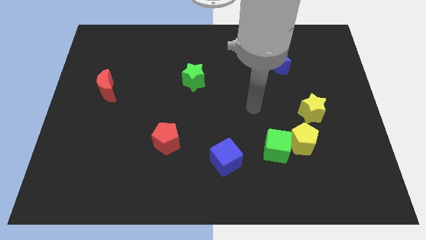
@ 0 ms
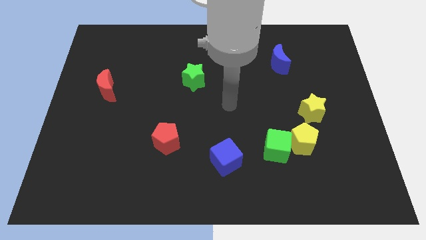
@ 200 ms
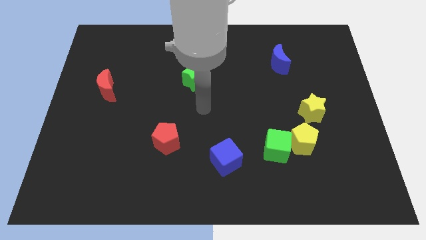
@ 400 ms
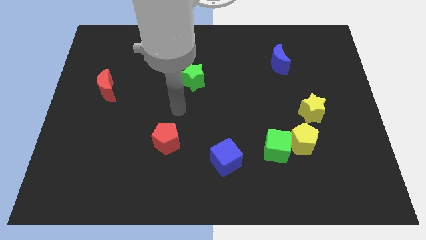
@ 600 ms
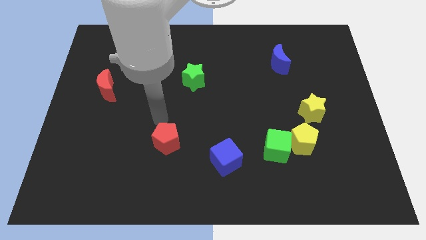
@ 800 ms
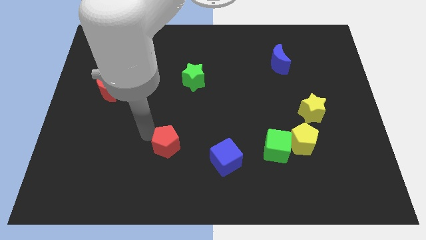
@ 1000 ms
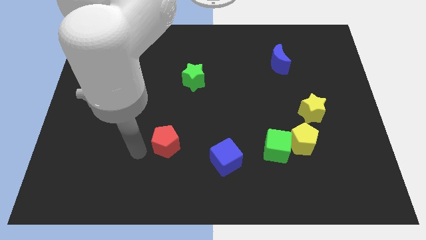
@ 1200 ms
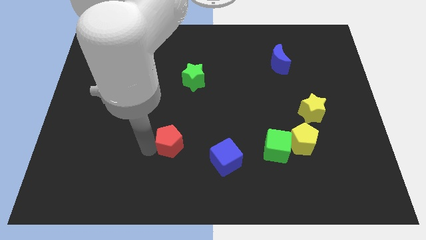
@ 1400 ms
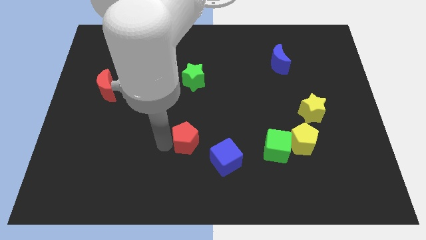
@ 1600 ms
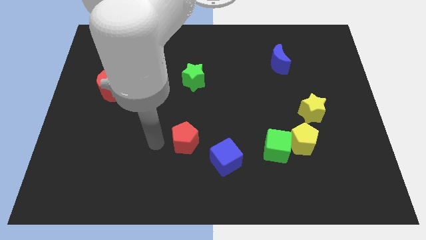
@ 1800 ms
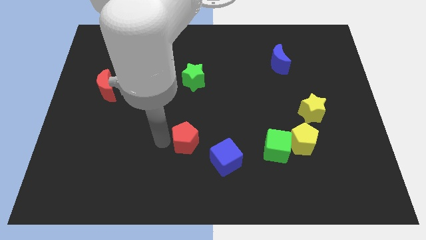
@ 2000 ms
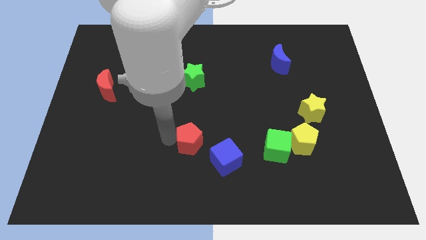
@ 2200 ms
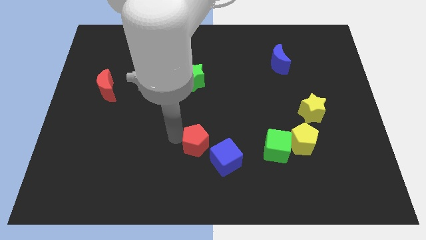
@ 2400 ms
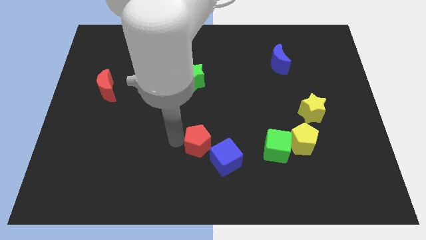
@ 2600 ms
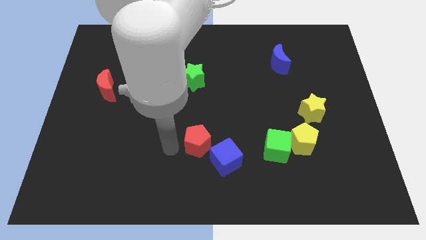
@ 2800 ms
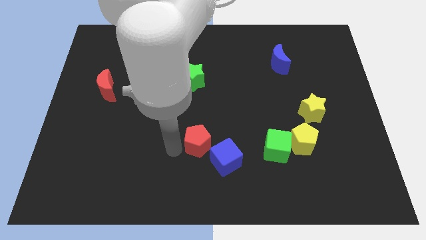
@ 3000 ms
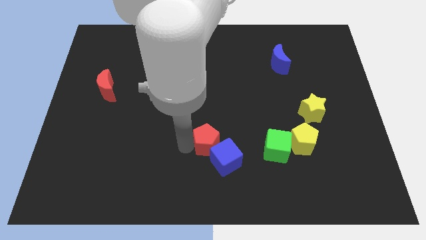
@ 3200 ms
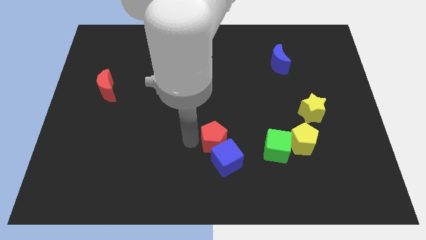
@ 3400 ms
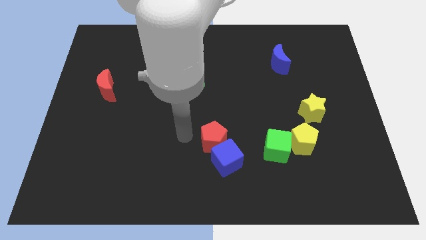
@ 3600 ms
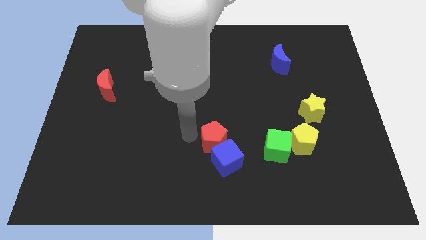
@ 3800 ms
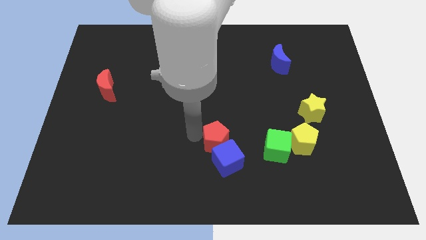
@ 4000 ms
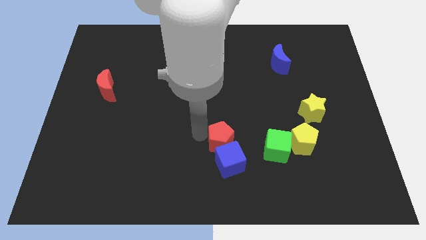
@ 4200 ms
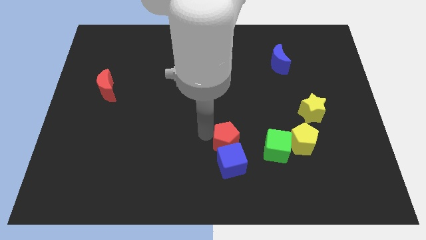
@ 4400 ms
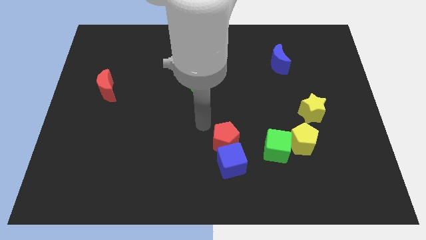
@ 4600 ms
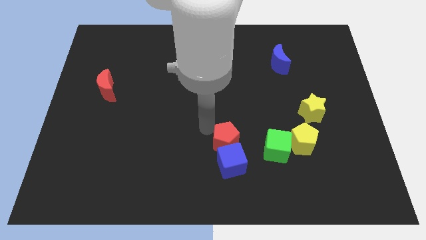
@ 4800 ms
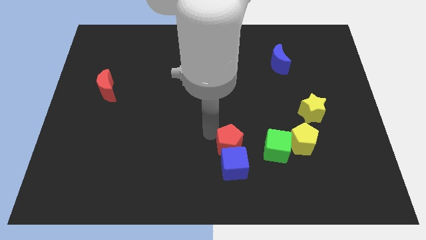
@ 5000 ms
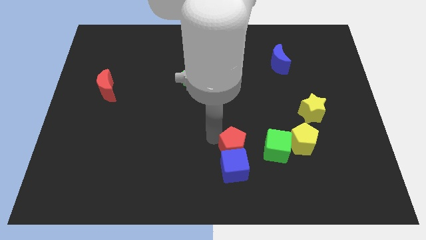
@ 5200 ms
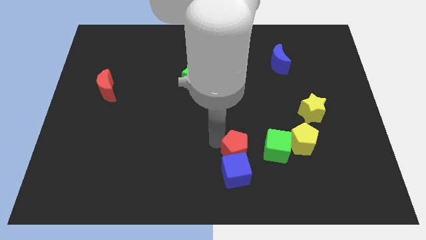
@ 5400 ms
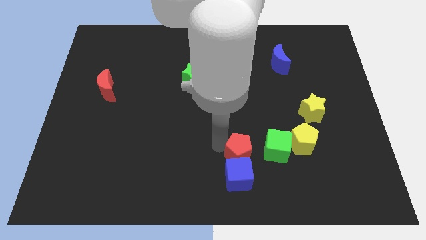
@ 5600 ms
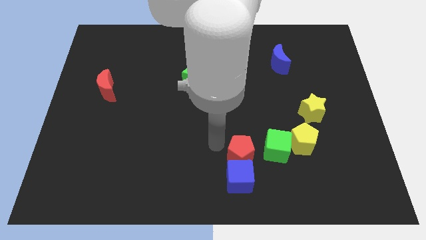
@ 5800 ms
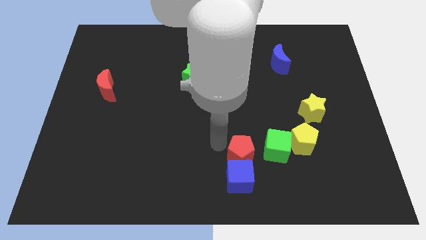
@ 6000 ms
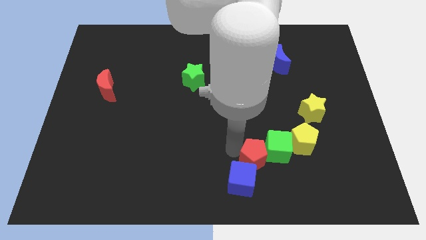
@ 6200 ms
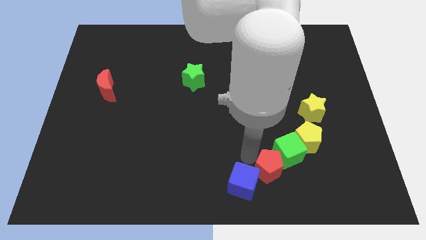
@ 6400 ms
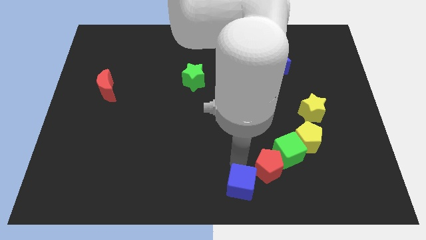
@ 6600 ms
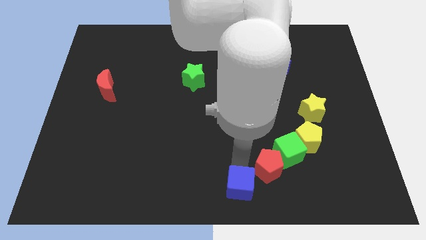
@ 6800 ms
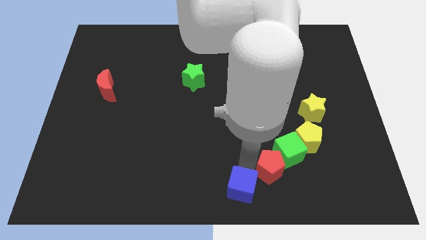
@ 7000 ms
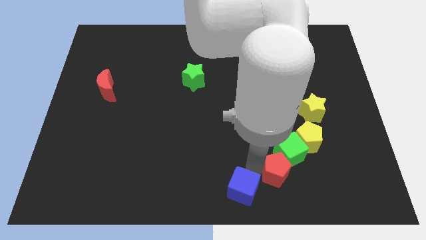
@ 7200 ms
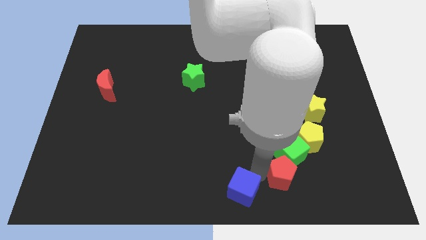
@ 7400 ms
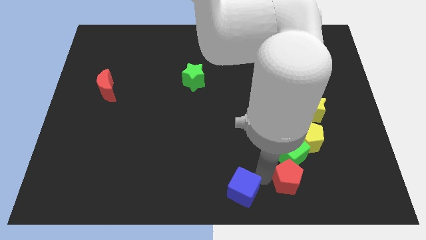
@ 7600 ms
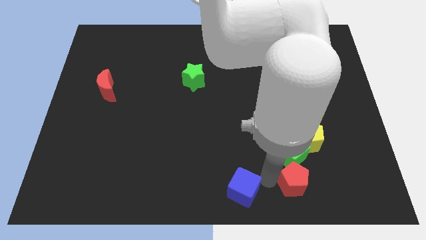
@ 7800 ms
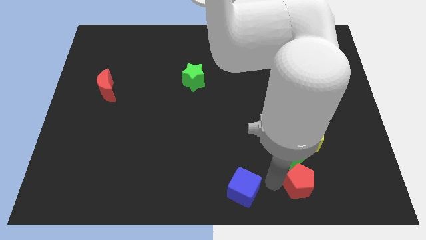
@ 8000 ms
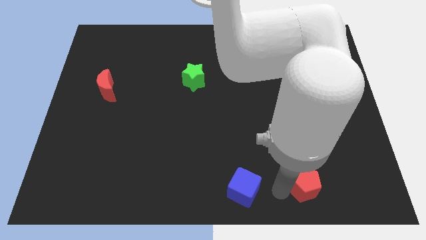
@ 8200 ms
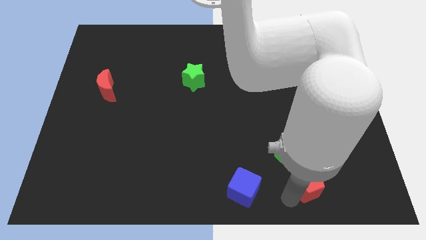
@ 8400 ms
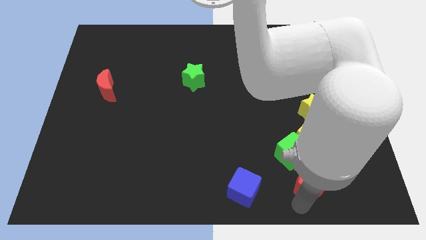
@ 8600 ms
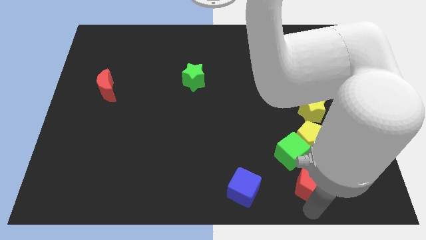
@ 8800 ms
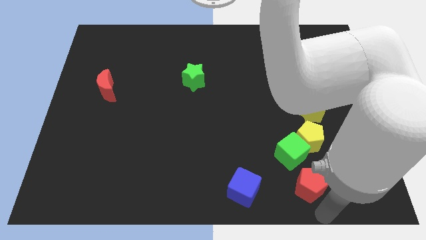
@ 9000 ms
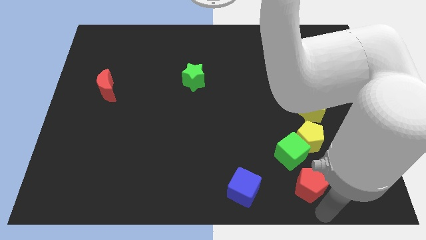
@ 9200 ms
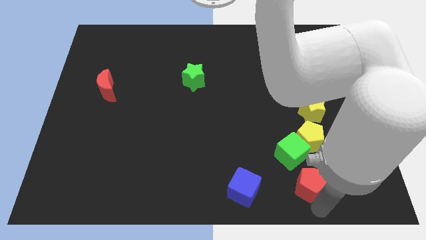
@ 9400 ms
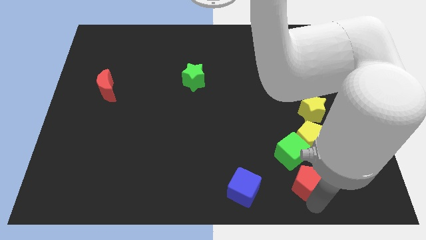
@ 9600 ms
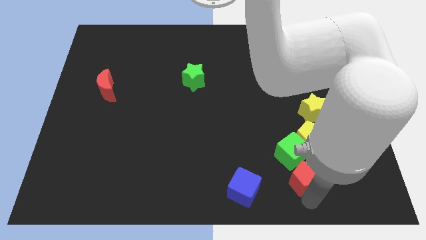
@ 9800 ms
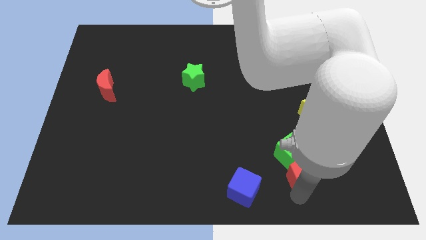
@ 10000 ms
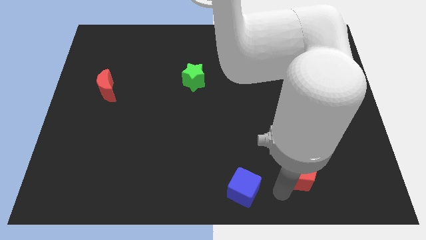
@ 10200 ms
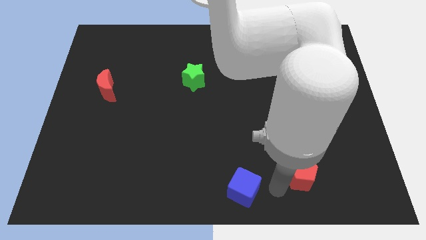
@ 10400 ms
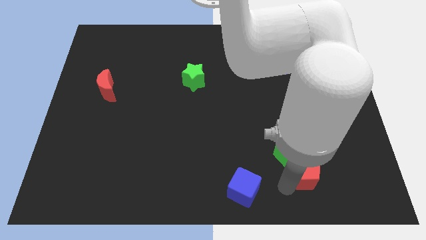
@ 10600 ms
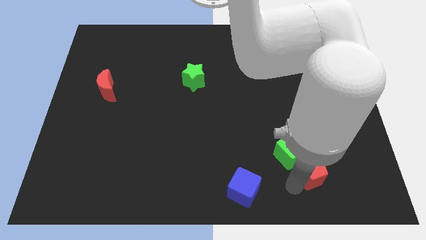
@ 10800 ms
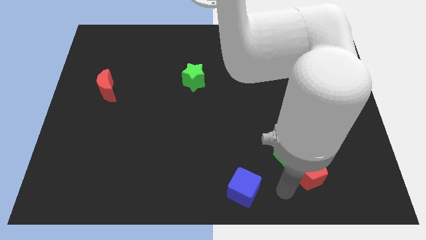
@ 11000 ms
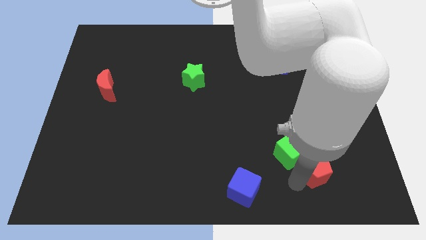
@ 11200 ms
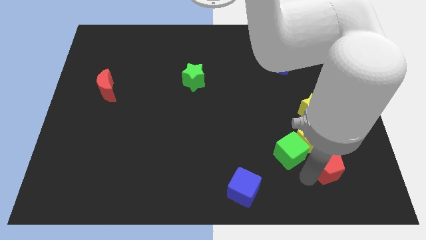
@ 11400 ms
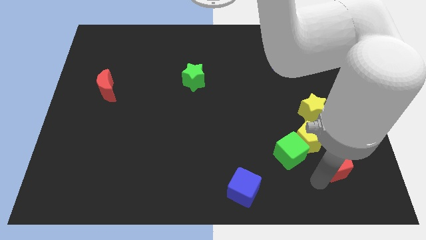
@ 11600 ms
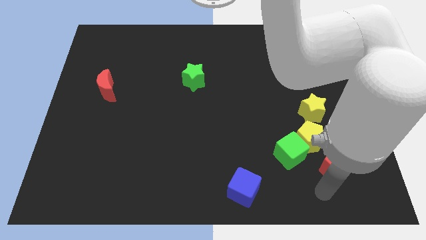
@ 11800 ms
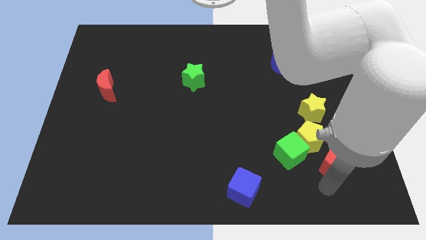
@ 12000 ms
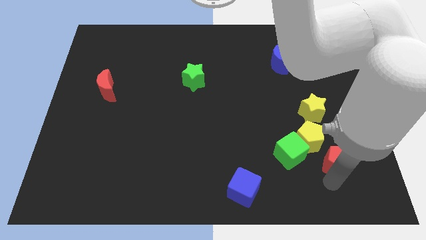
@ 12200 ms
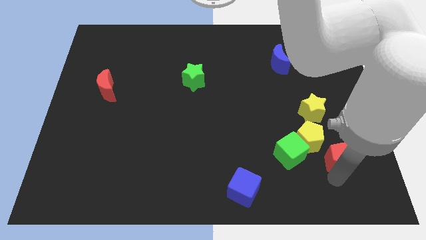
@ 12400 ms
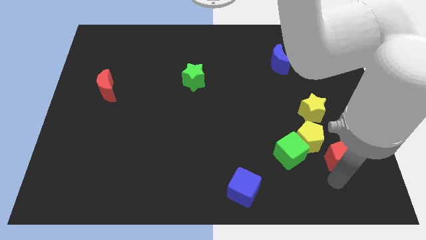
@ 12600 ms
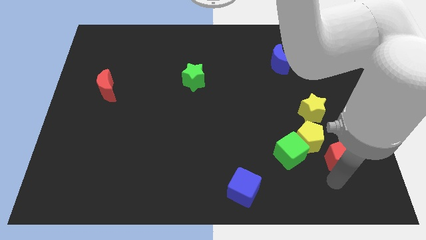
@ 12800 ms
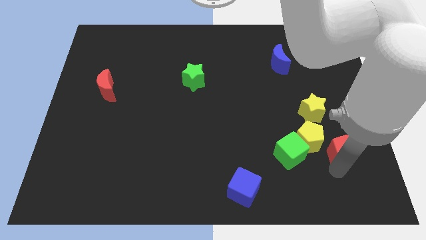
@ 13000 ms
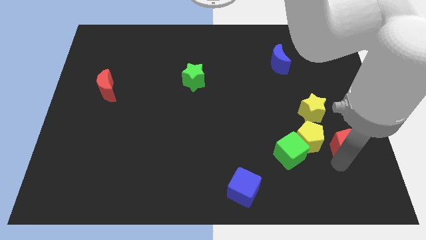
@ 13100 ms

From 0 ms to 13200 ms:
put the red pentagon to the bottom right of the yellow star
